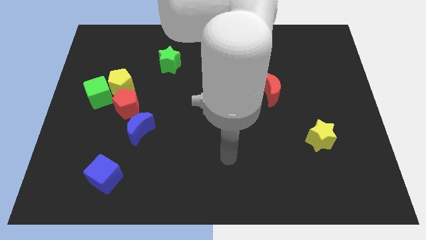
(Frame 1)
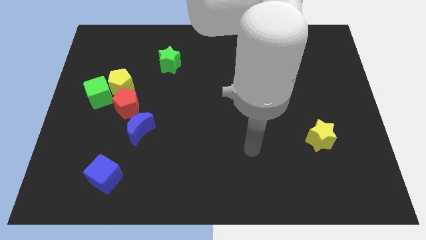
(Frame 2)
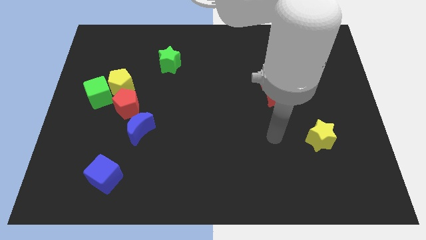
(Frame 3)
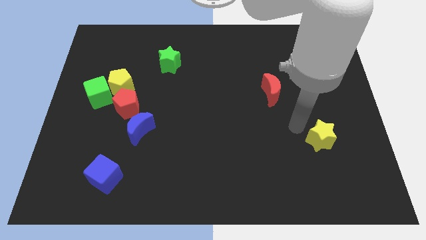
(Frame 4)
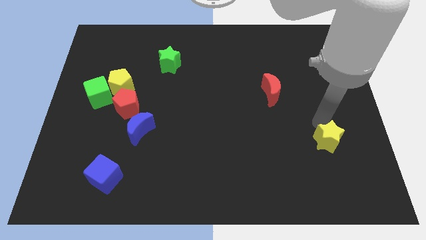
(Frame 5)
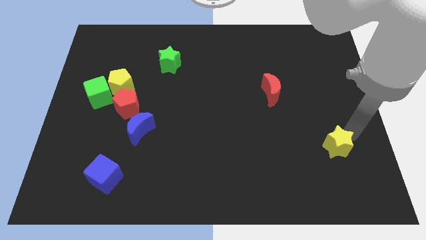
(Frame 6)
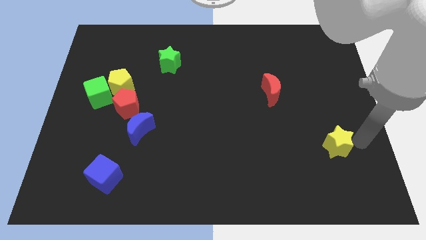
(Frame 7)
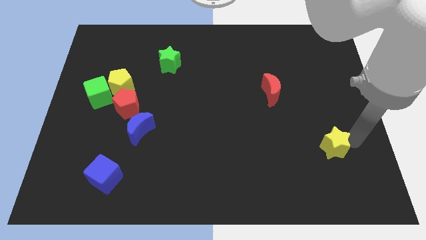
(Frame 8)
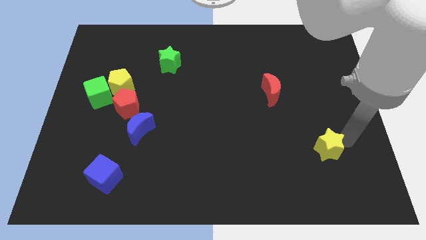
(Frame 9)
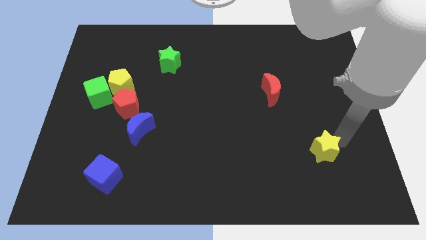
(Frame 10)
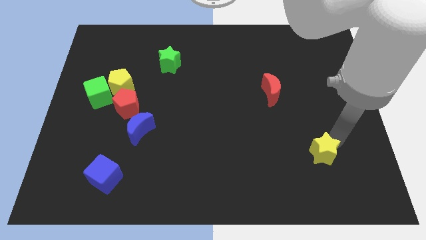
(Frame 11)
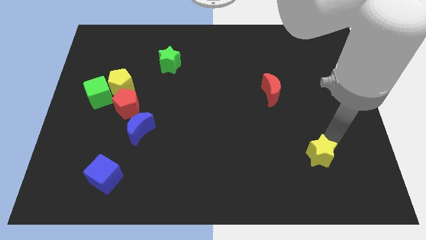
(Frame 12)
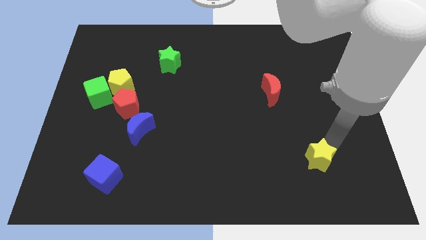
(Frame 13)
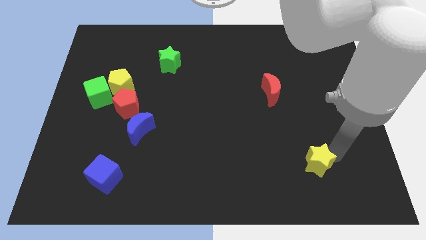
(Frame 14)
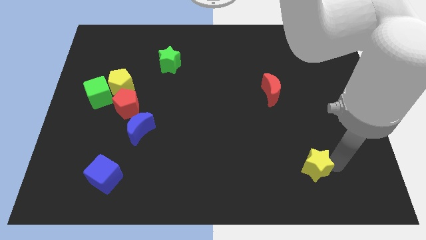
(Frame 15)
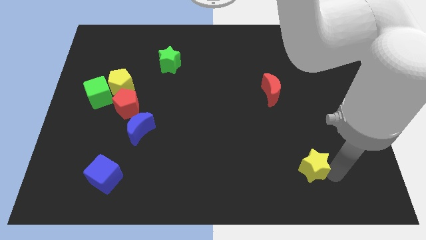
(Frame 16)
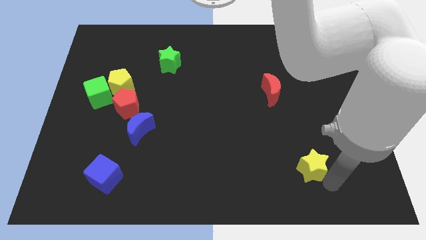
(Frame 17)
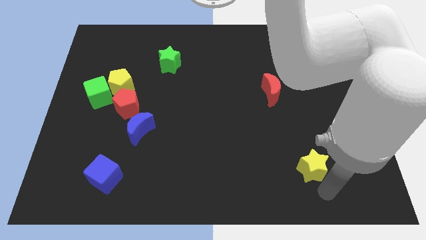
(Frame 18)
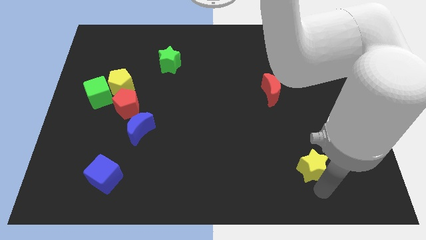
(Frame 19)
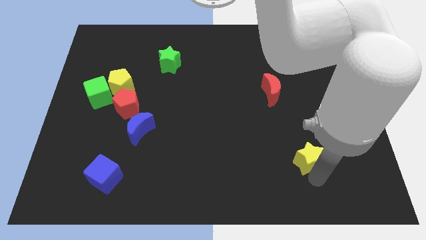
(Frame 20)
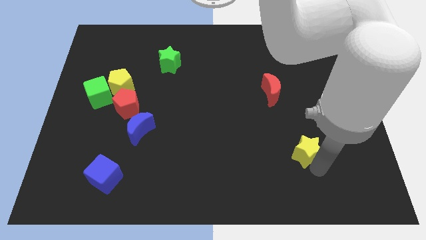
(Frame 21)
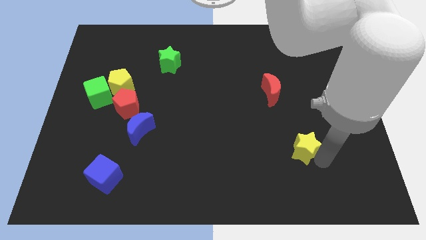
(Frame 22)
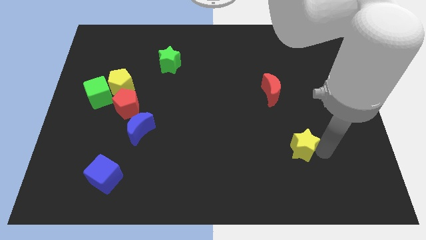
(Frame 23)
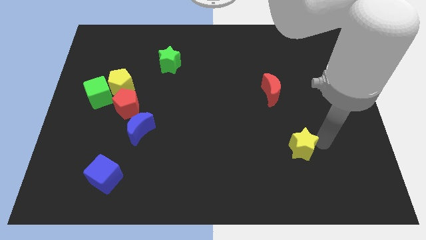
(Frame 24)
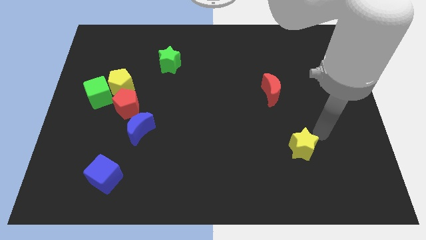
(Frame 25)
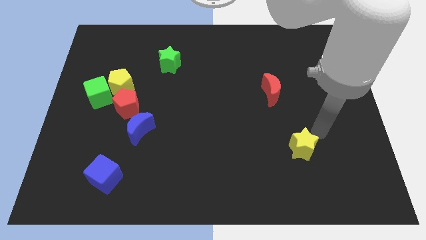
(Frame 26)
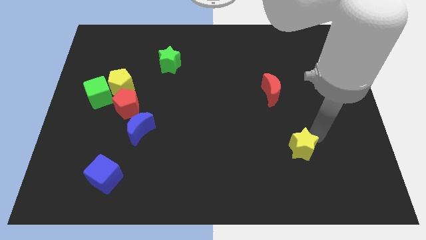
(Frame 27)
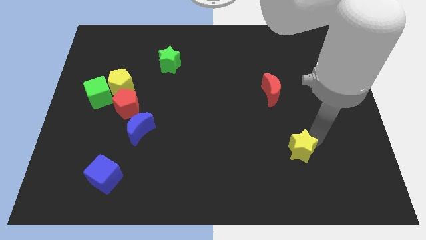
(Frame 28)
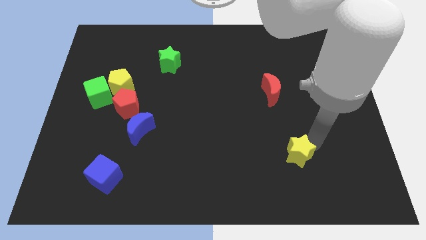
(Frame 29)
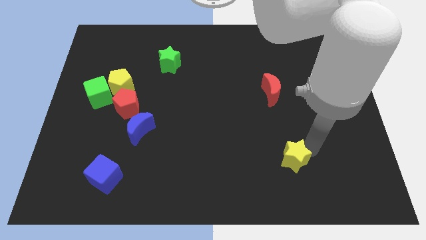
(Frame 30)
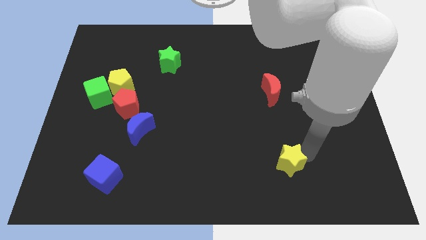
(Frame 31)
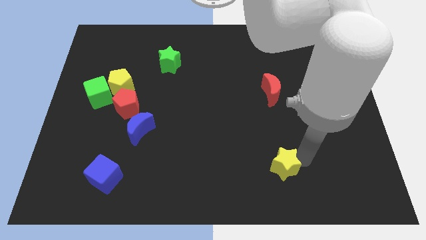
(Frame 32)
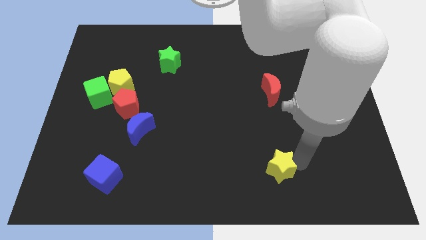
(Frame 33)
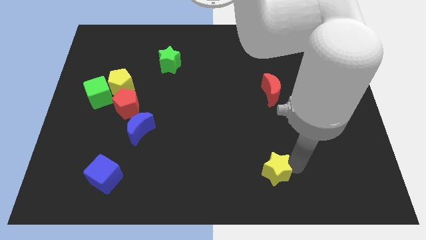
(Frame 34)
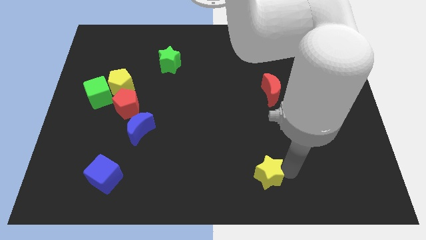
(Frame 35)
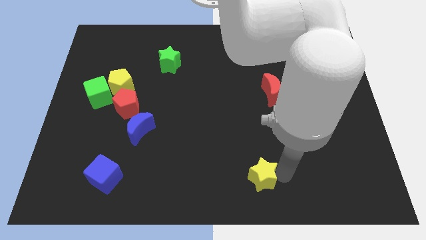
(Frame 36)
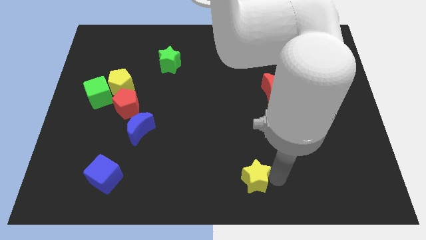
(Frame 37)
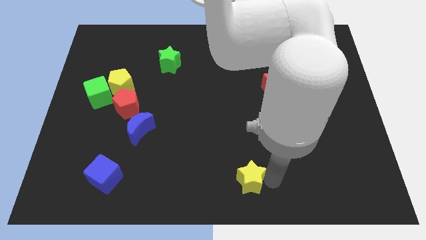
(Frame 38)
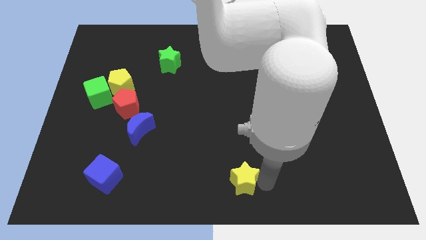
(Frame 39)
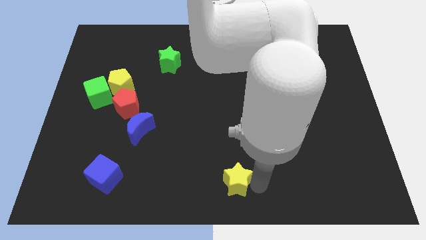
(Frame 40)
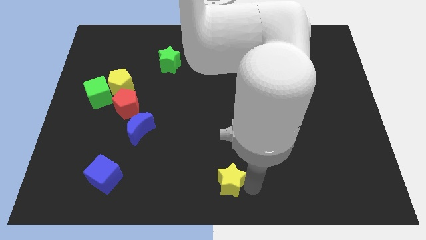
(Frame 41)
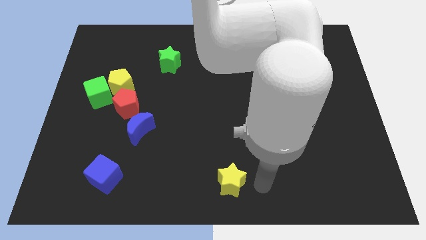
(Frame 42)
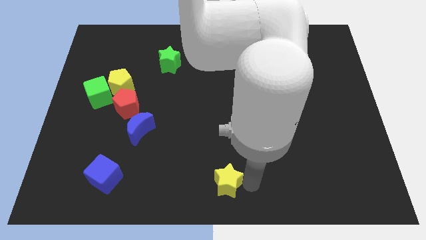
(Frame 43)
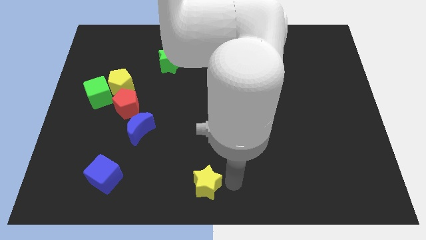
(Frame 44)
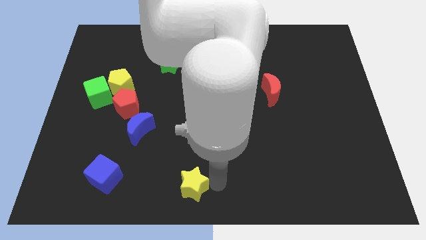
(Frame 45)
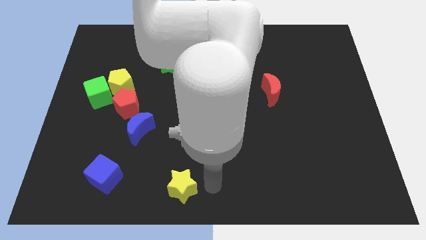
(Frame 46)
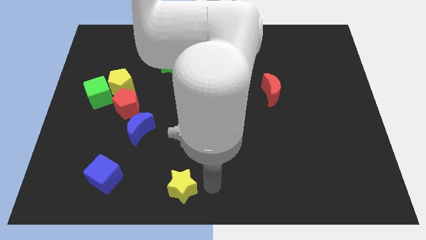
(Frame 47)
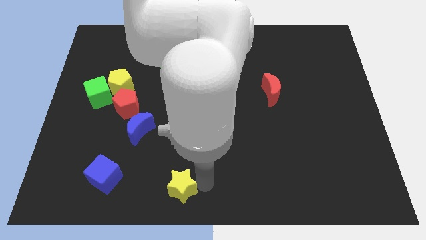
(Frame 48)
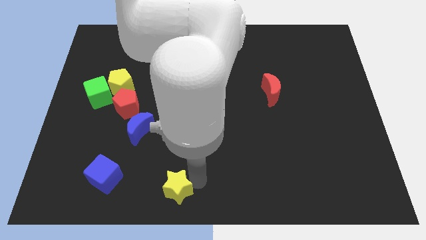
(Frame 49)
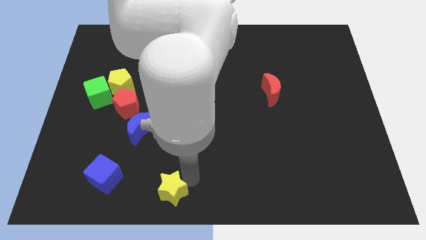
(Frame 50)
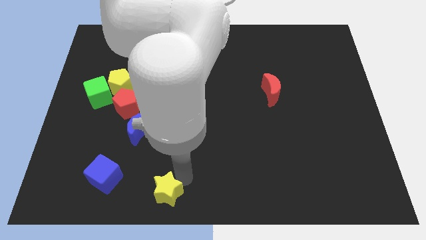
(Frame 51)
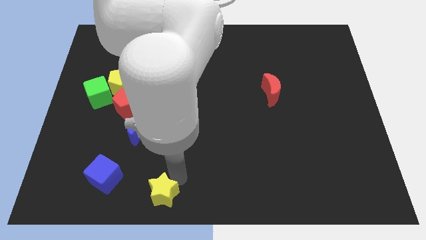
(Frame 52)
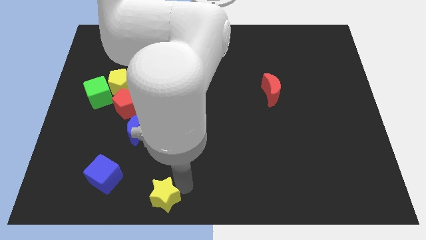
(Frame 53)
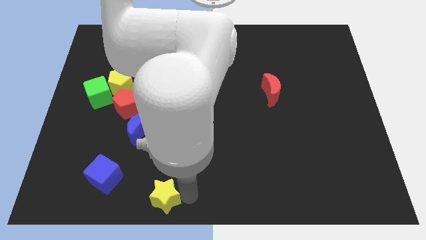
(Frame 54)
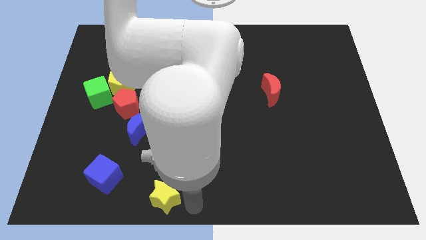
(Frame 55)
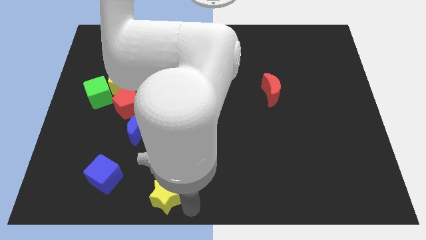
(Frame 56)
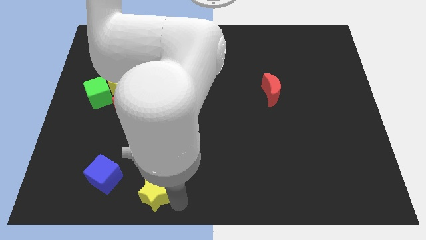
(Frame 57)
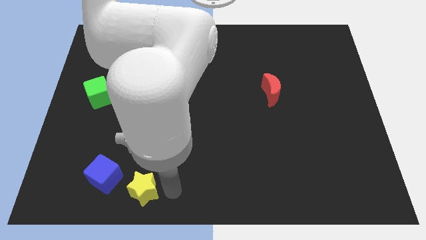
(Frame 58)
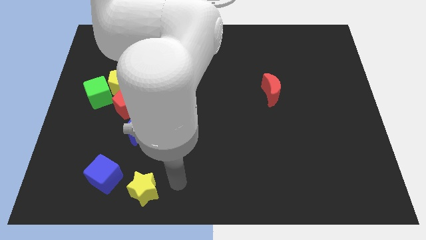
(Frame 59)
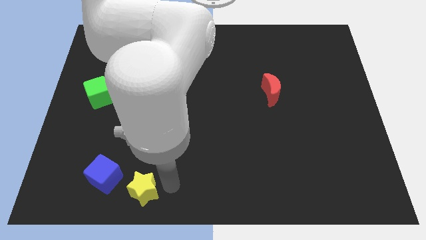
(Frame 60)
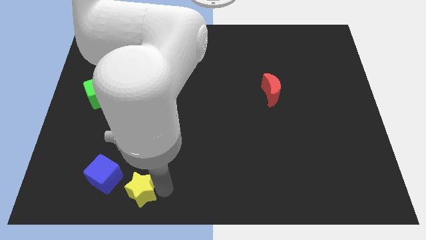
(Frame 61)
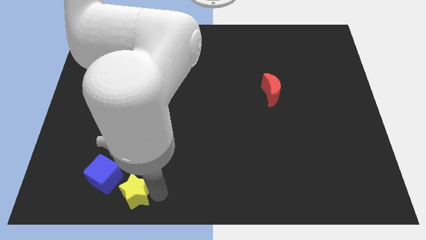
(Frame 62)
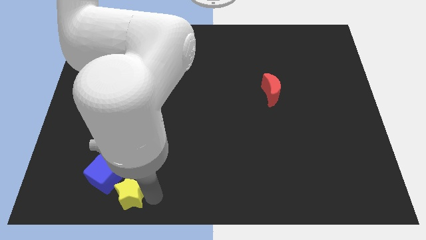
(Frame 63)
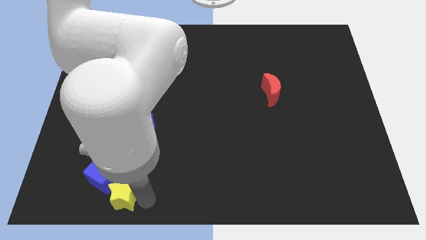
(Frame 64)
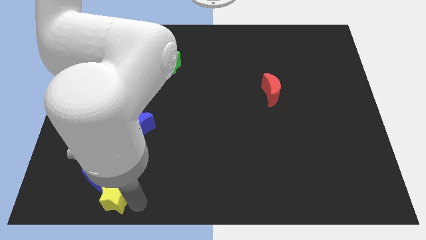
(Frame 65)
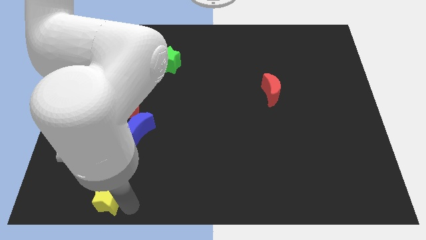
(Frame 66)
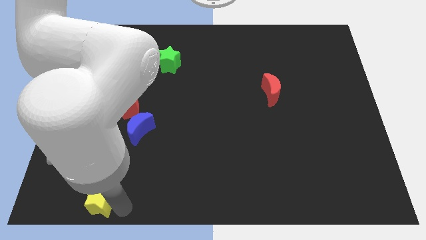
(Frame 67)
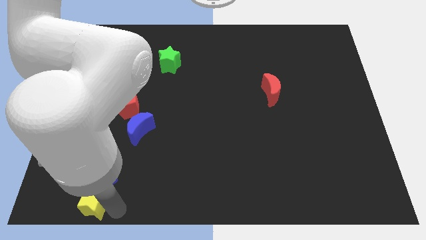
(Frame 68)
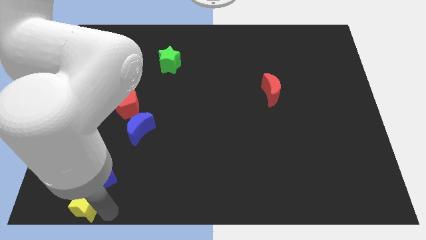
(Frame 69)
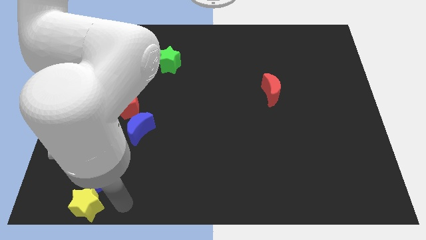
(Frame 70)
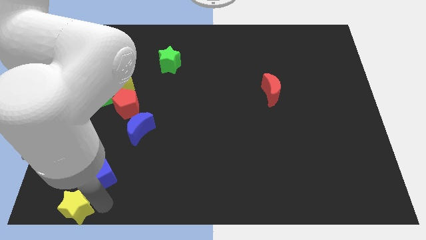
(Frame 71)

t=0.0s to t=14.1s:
move the yellow star to the bottom left corner
